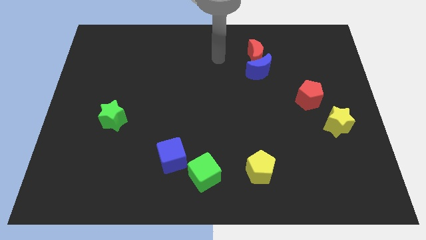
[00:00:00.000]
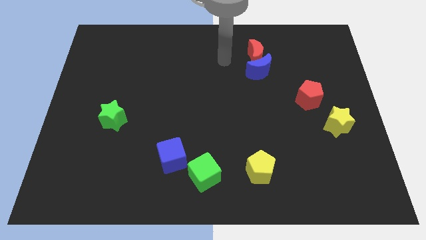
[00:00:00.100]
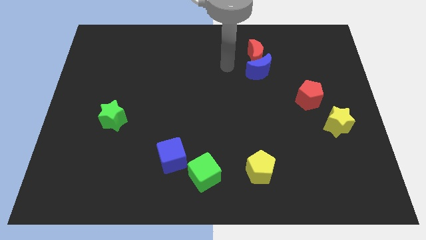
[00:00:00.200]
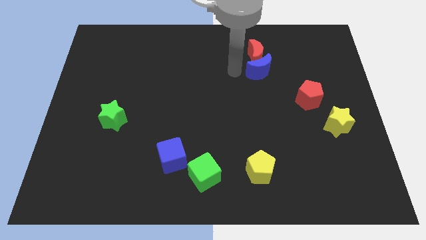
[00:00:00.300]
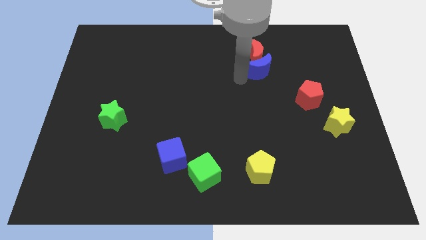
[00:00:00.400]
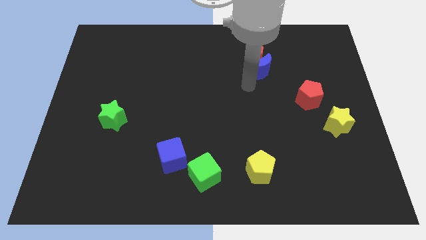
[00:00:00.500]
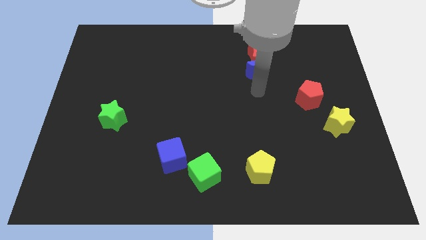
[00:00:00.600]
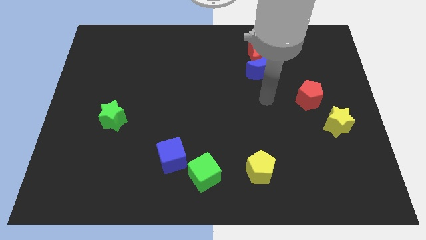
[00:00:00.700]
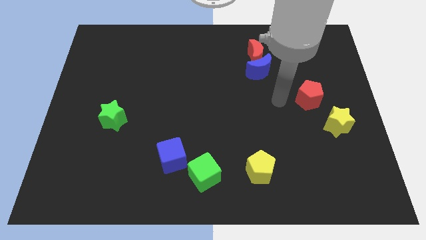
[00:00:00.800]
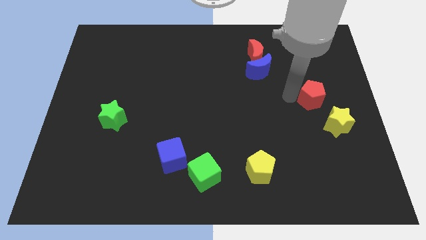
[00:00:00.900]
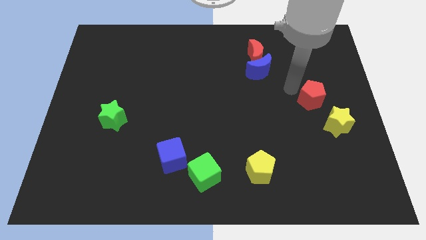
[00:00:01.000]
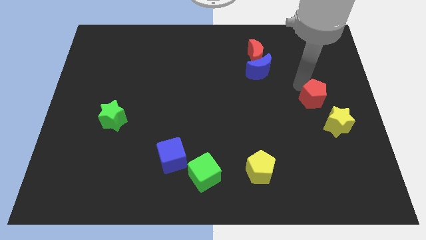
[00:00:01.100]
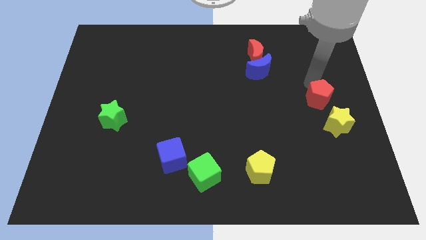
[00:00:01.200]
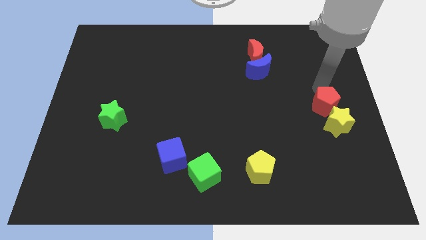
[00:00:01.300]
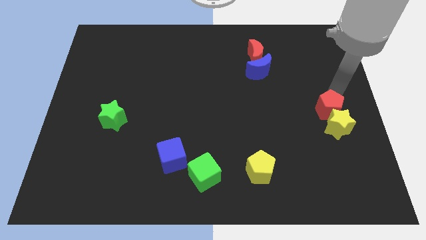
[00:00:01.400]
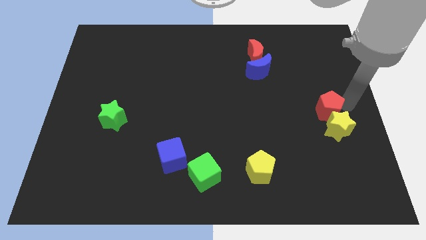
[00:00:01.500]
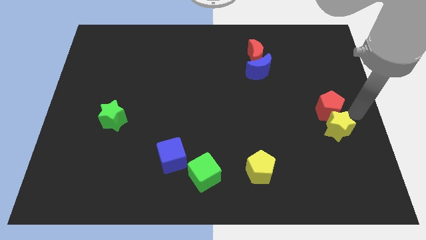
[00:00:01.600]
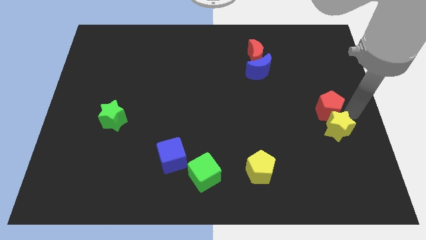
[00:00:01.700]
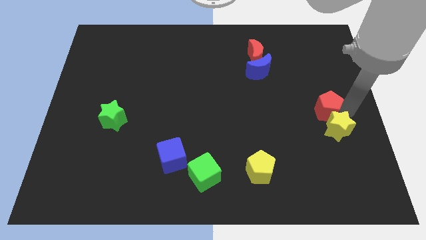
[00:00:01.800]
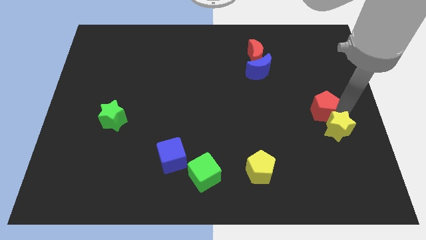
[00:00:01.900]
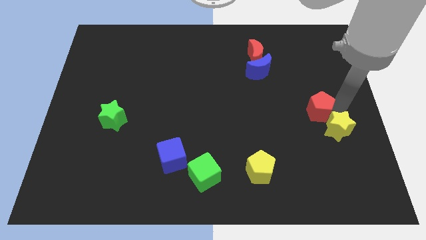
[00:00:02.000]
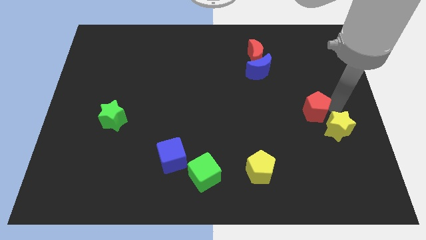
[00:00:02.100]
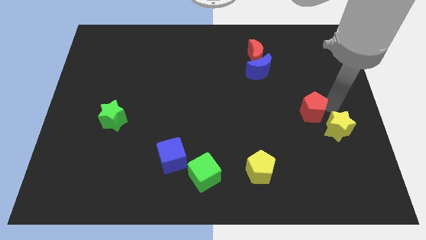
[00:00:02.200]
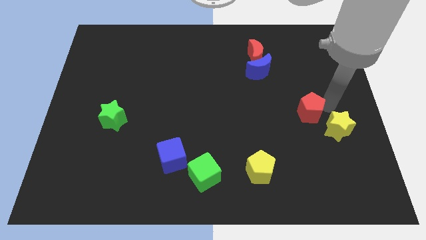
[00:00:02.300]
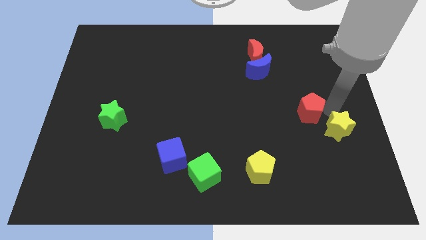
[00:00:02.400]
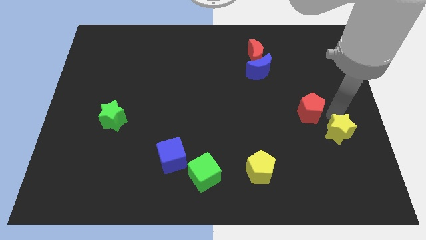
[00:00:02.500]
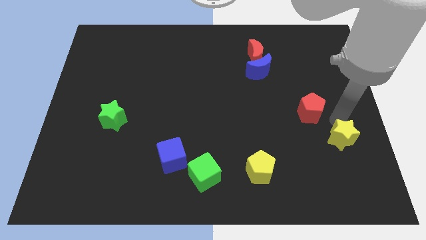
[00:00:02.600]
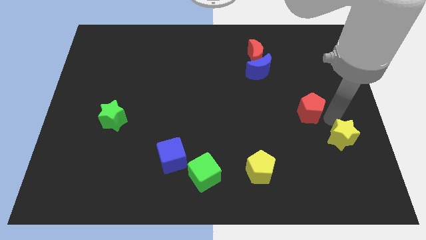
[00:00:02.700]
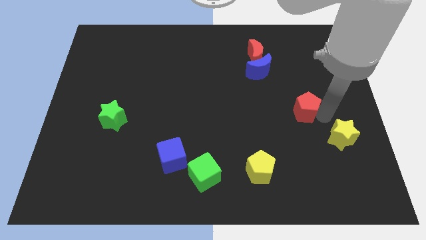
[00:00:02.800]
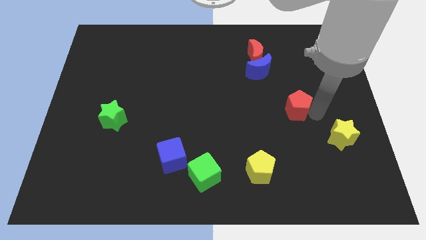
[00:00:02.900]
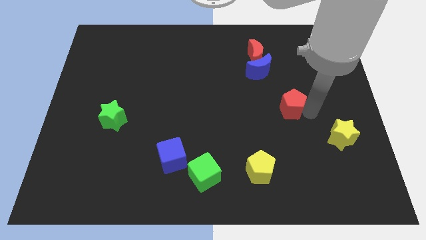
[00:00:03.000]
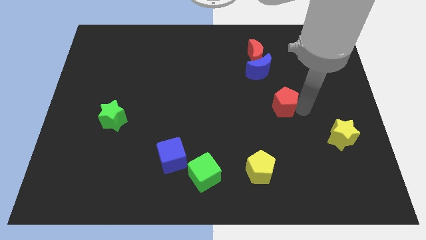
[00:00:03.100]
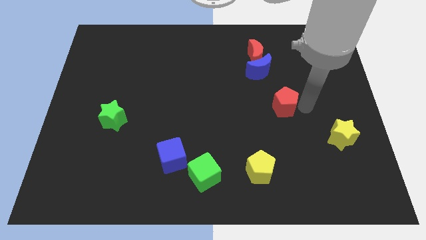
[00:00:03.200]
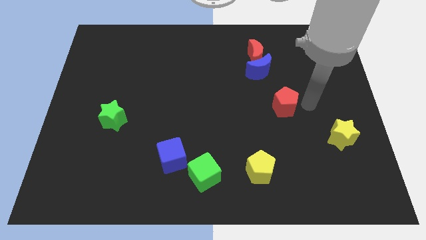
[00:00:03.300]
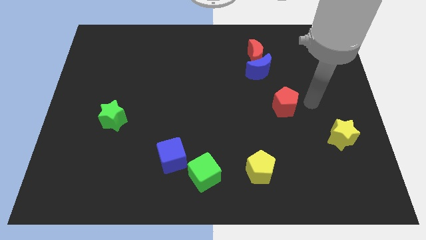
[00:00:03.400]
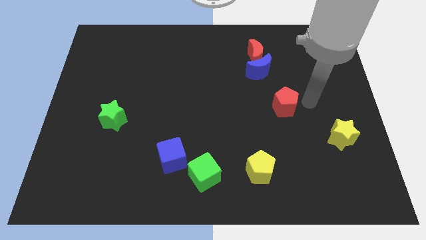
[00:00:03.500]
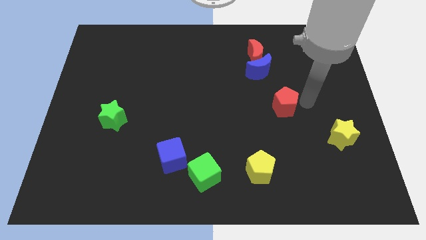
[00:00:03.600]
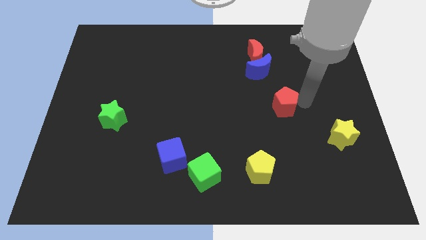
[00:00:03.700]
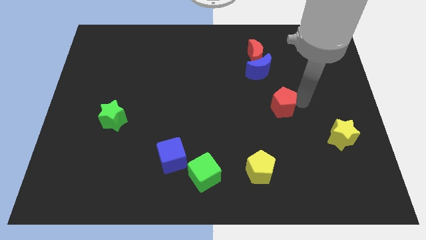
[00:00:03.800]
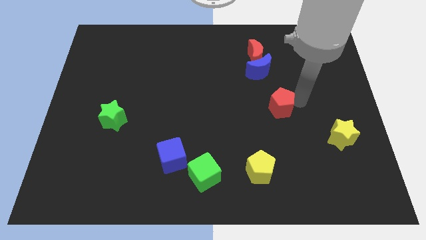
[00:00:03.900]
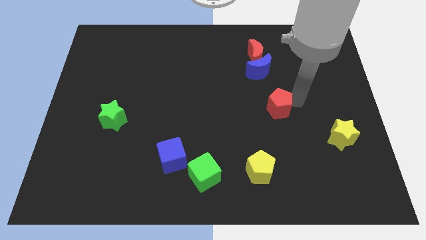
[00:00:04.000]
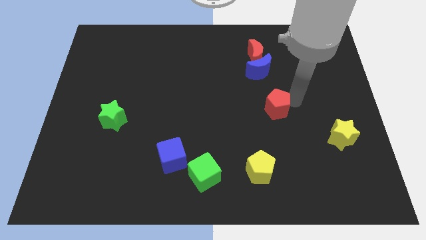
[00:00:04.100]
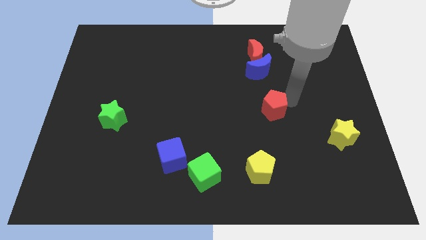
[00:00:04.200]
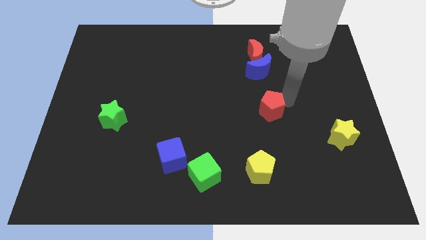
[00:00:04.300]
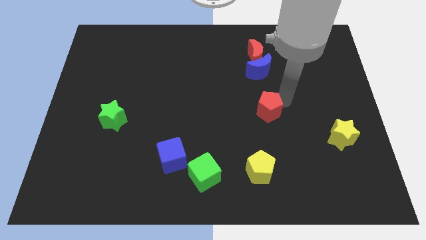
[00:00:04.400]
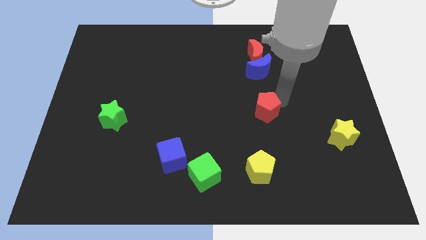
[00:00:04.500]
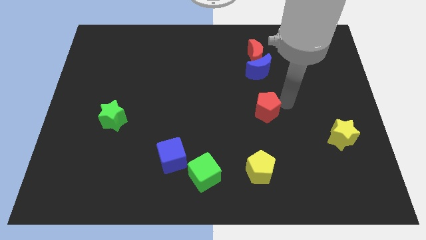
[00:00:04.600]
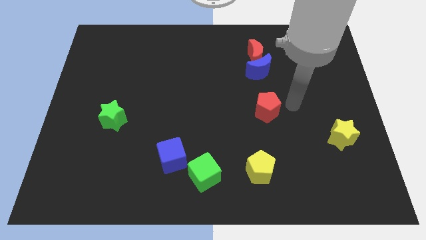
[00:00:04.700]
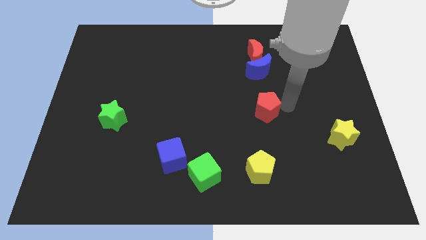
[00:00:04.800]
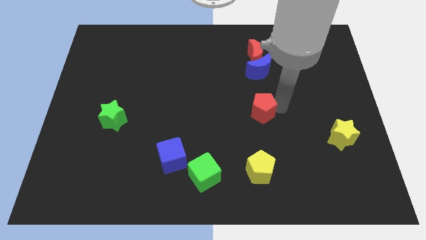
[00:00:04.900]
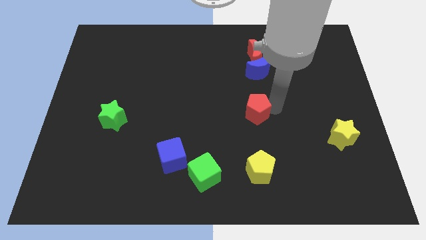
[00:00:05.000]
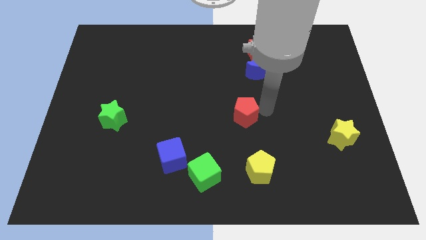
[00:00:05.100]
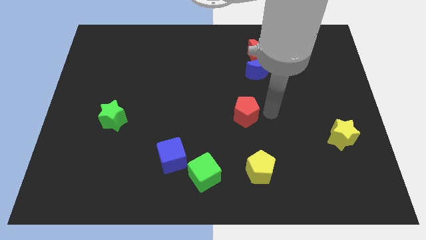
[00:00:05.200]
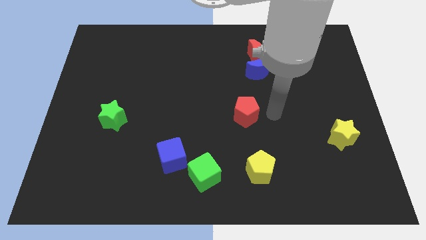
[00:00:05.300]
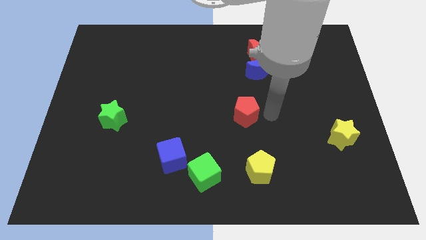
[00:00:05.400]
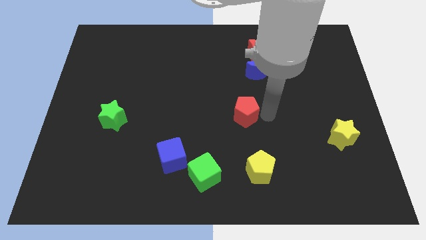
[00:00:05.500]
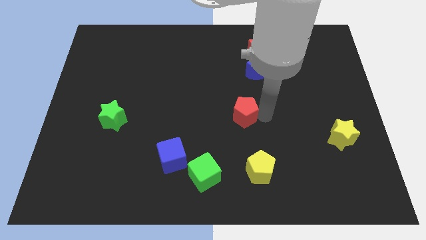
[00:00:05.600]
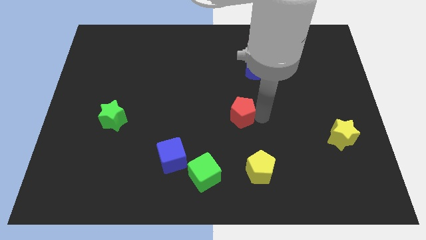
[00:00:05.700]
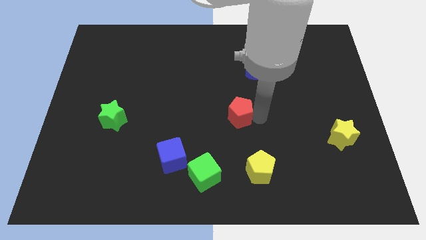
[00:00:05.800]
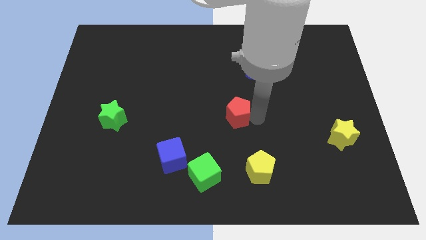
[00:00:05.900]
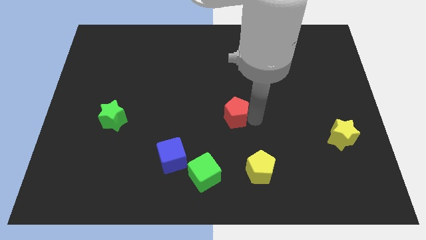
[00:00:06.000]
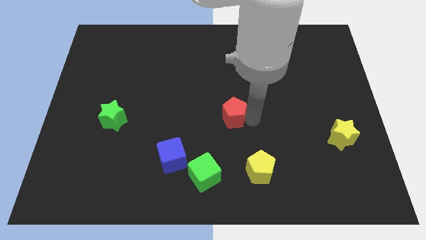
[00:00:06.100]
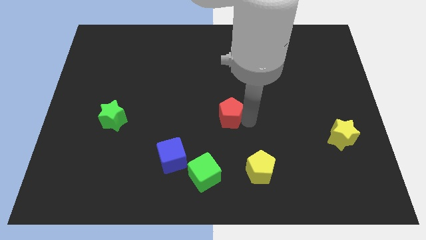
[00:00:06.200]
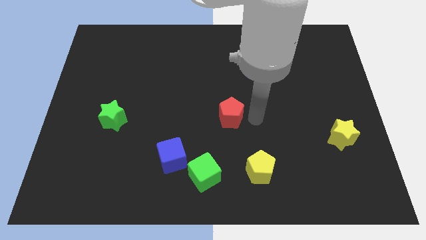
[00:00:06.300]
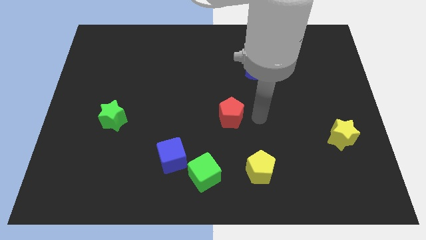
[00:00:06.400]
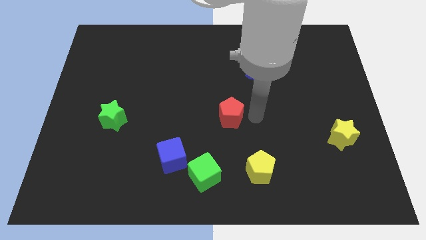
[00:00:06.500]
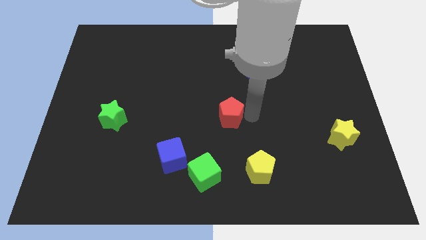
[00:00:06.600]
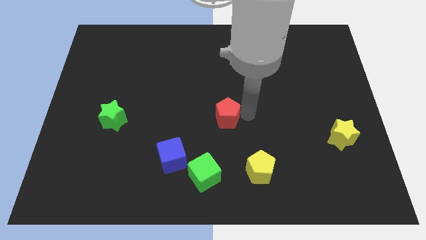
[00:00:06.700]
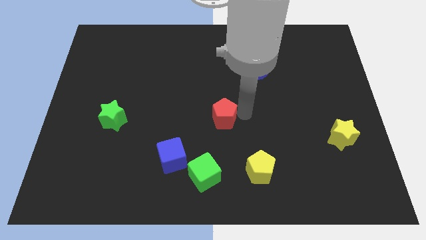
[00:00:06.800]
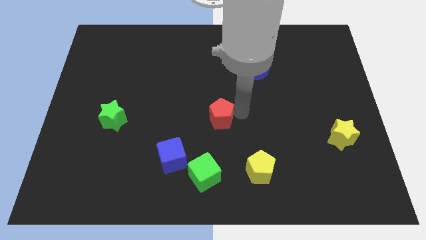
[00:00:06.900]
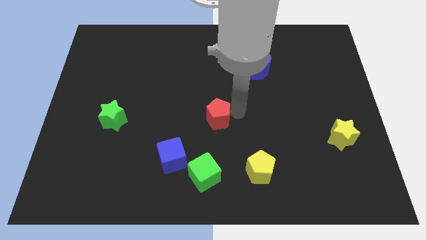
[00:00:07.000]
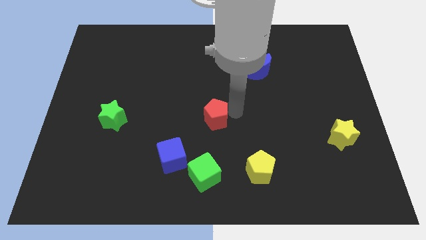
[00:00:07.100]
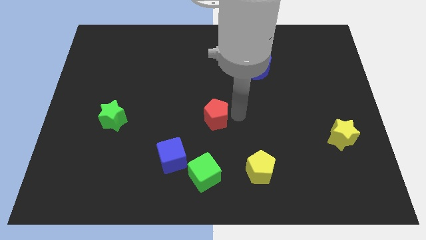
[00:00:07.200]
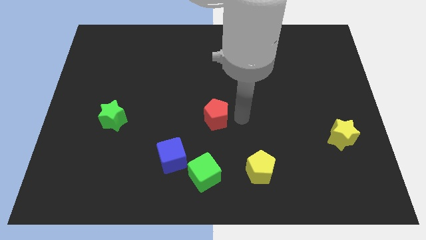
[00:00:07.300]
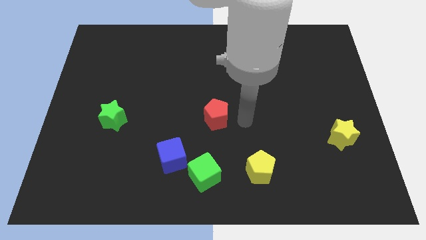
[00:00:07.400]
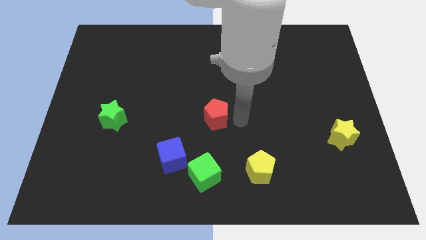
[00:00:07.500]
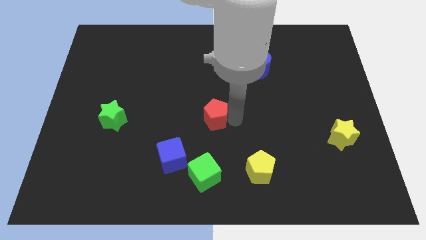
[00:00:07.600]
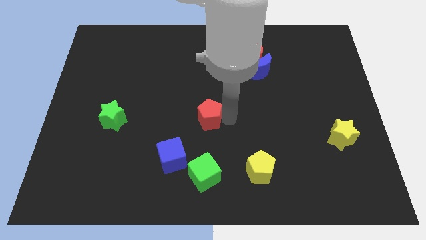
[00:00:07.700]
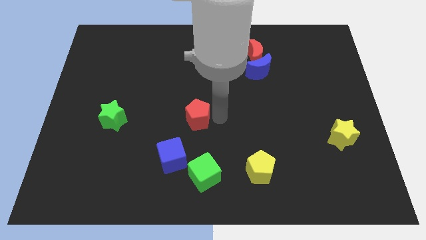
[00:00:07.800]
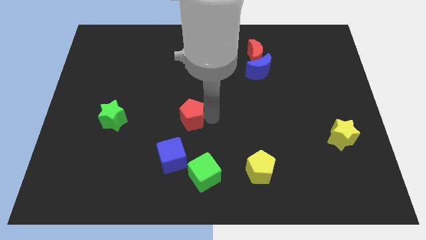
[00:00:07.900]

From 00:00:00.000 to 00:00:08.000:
slide the red pentagon to the top of the blue cube
